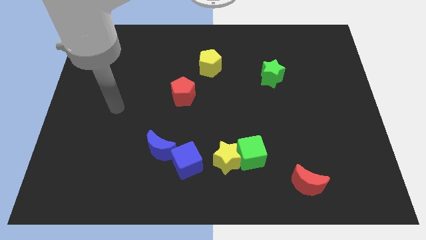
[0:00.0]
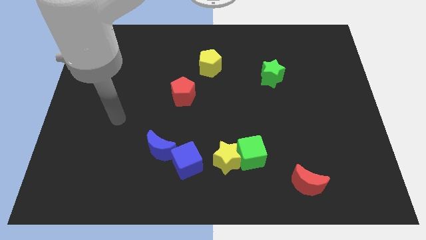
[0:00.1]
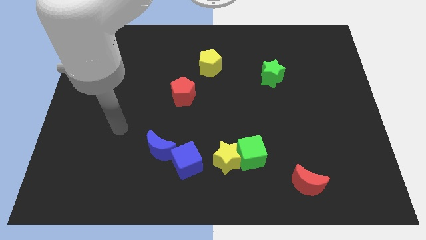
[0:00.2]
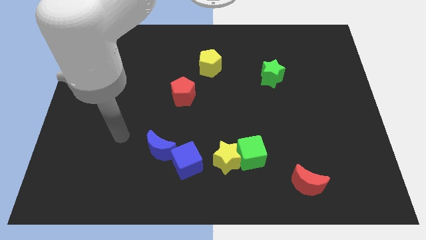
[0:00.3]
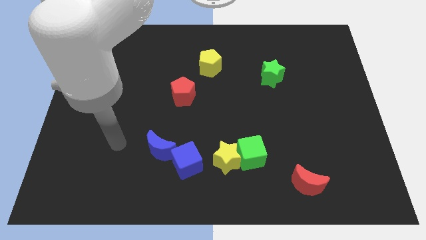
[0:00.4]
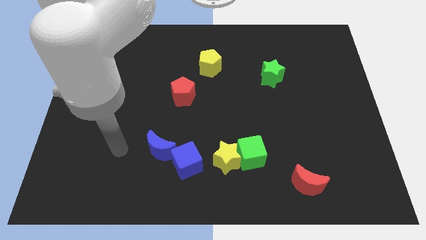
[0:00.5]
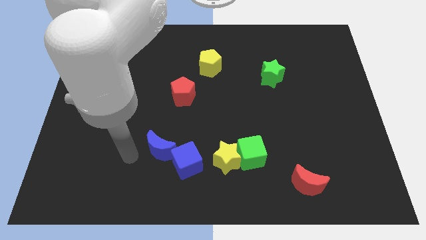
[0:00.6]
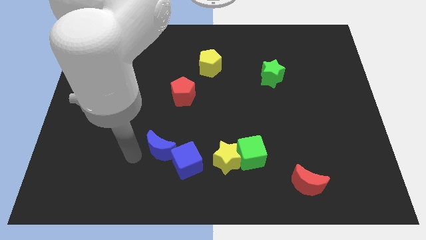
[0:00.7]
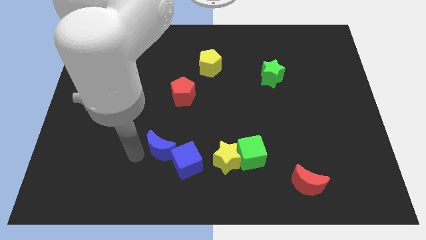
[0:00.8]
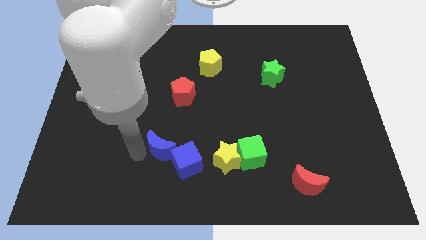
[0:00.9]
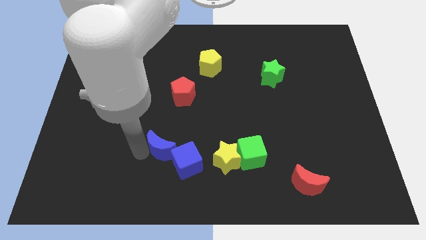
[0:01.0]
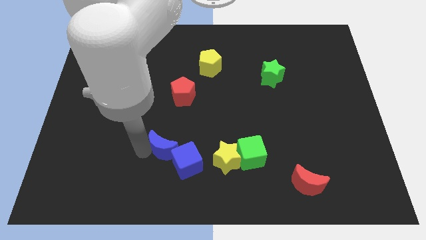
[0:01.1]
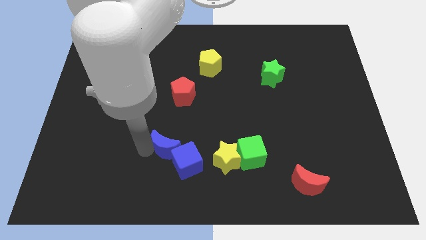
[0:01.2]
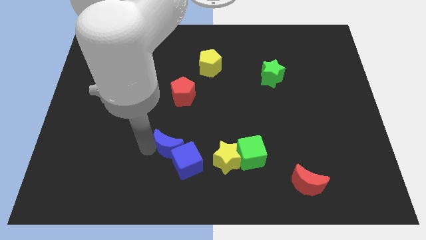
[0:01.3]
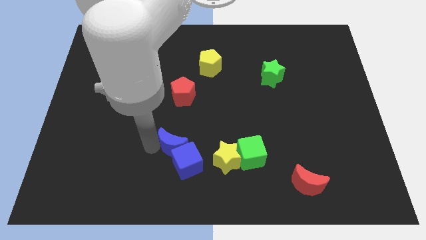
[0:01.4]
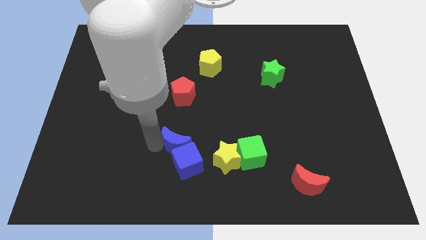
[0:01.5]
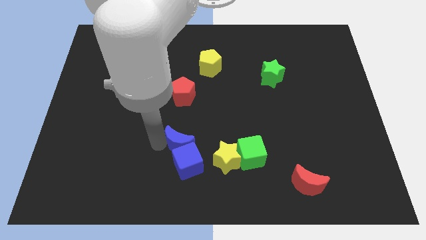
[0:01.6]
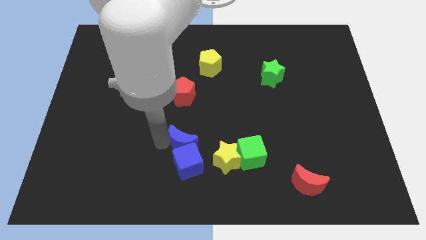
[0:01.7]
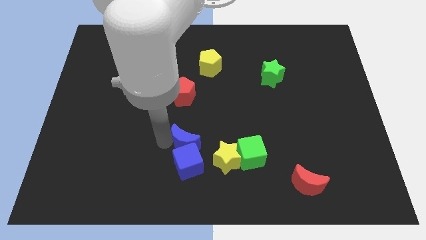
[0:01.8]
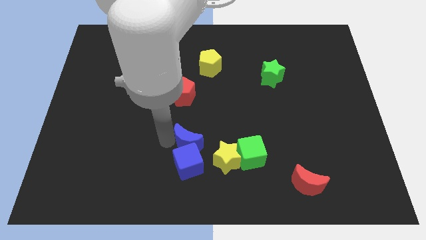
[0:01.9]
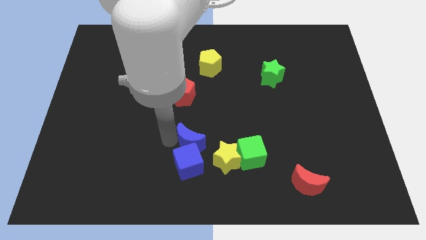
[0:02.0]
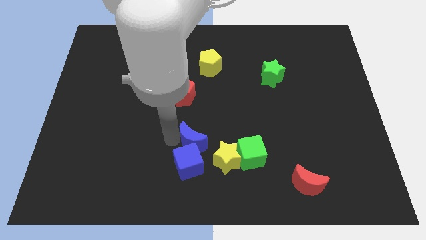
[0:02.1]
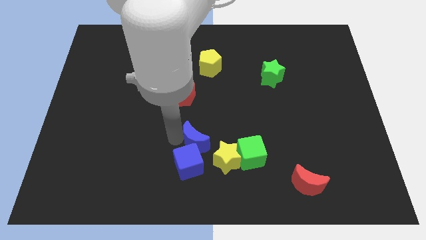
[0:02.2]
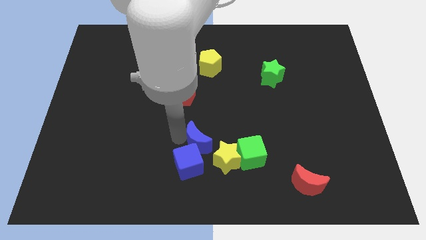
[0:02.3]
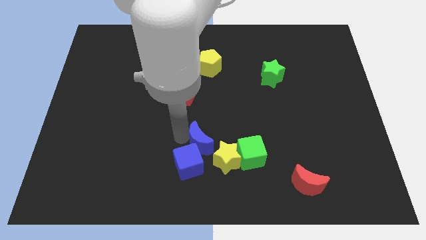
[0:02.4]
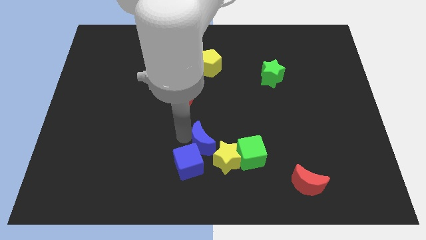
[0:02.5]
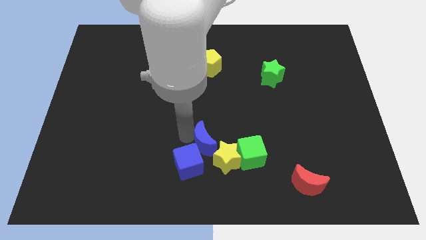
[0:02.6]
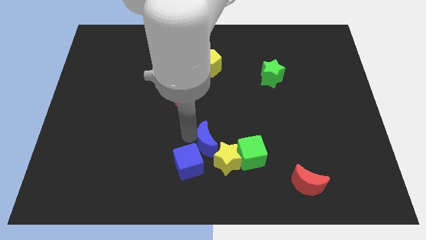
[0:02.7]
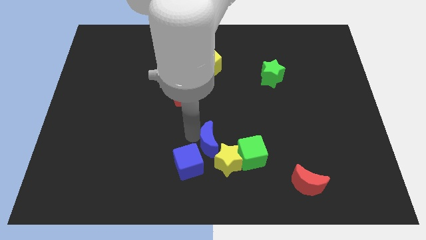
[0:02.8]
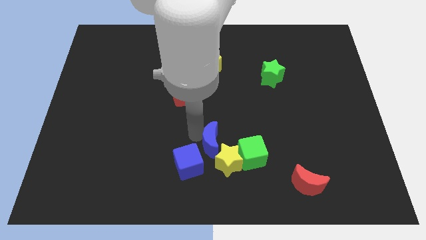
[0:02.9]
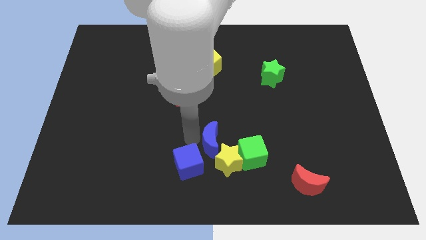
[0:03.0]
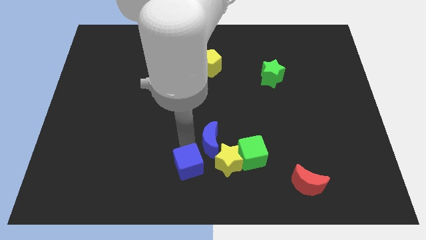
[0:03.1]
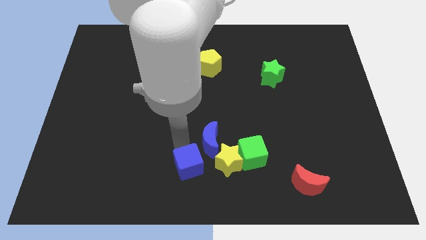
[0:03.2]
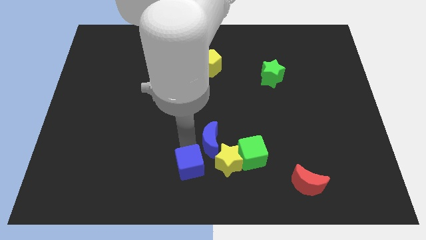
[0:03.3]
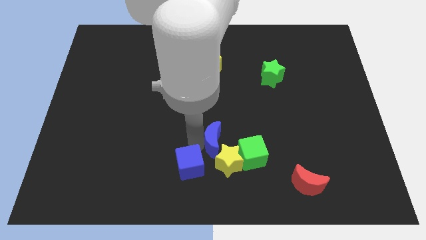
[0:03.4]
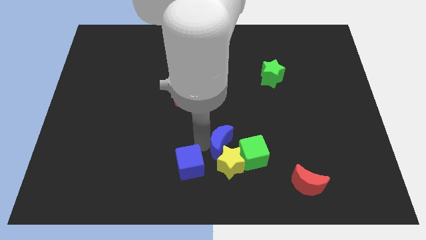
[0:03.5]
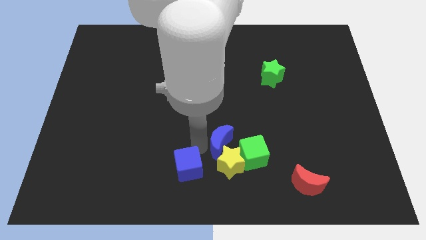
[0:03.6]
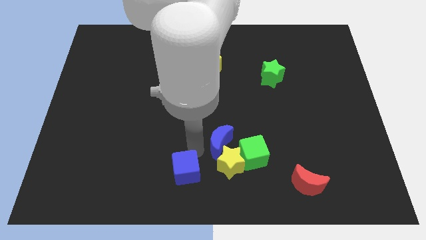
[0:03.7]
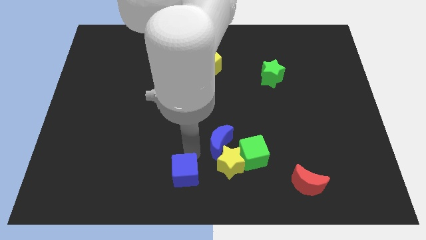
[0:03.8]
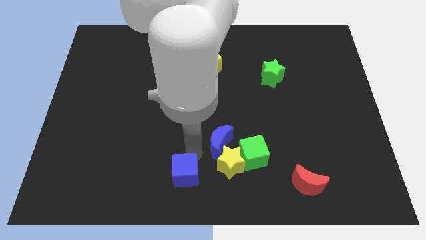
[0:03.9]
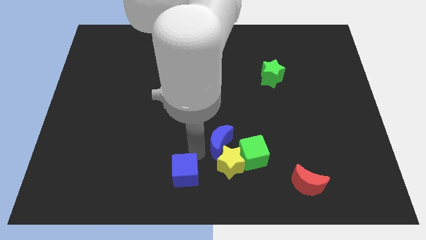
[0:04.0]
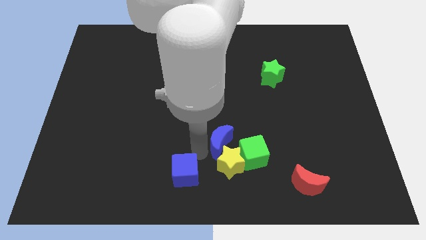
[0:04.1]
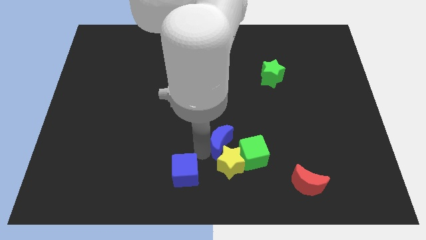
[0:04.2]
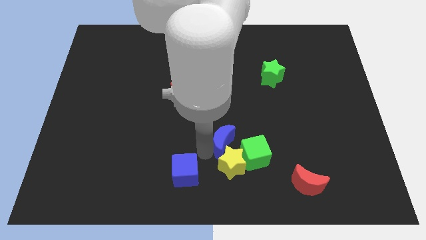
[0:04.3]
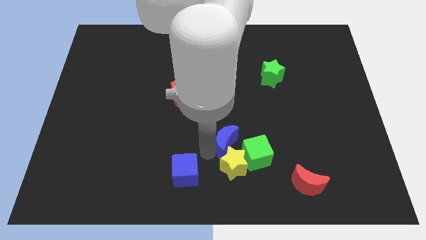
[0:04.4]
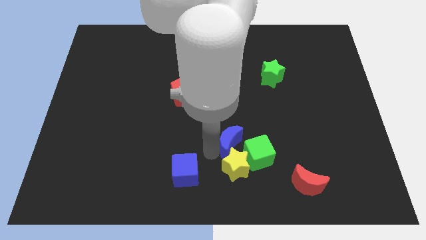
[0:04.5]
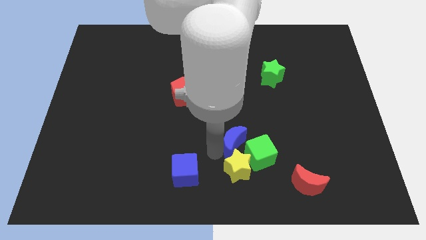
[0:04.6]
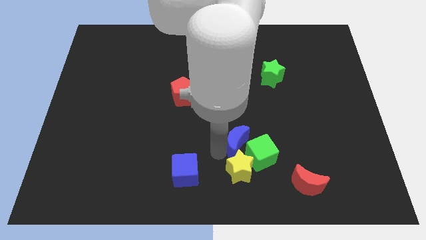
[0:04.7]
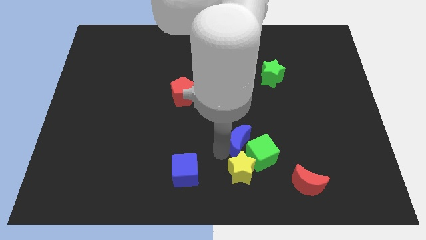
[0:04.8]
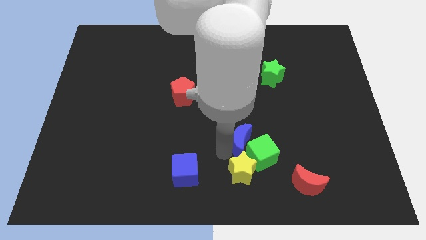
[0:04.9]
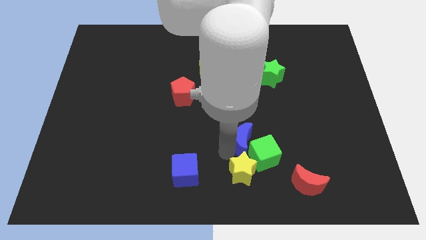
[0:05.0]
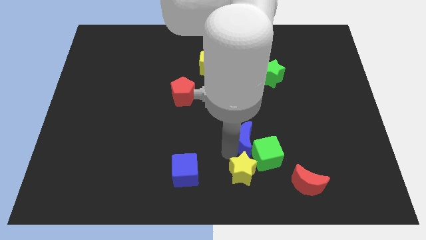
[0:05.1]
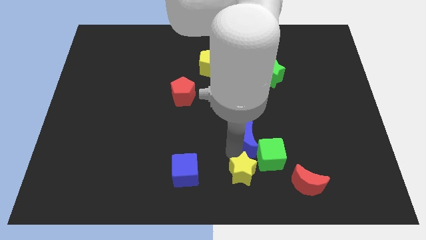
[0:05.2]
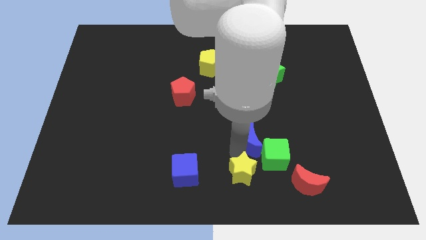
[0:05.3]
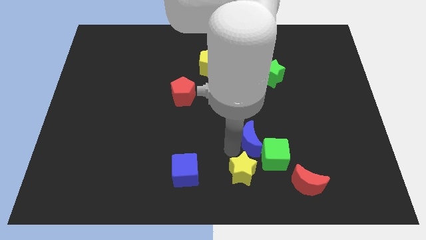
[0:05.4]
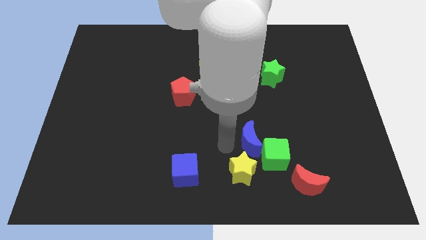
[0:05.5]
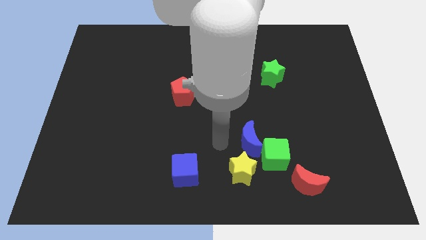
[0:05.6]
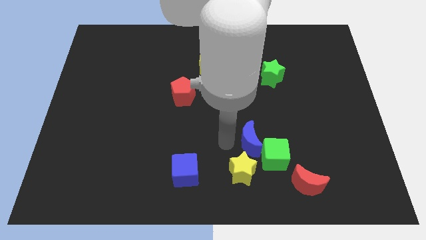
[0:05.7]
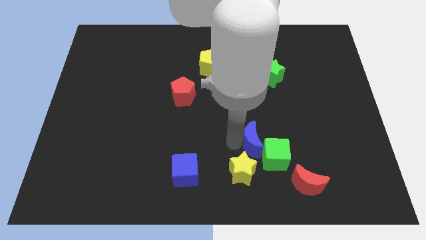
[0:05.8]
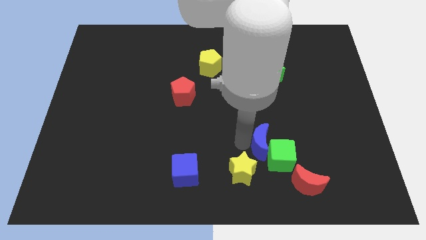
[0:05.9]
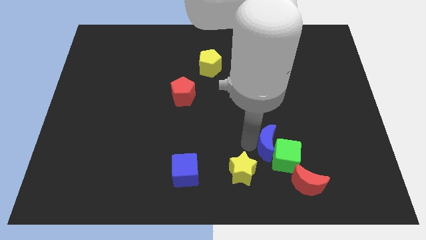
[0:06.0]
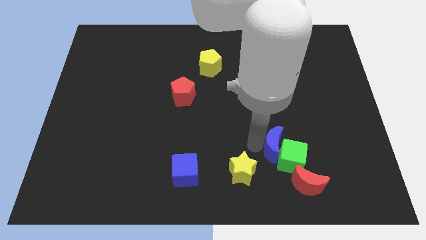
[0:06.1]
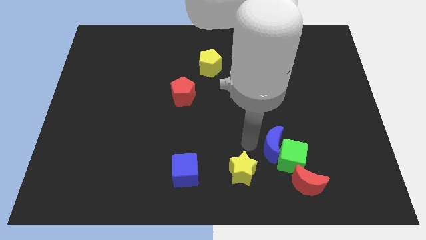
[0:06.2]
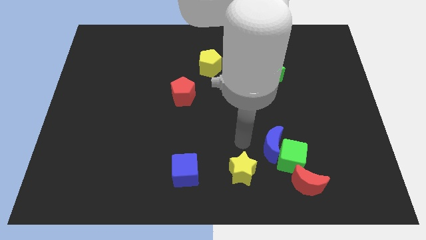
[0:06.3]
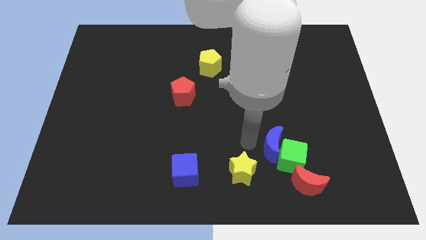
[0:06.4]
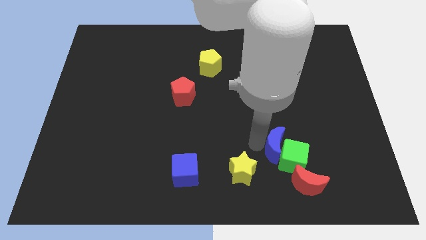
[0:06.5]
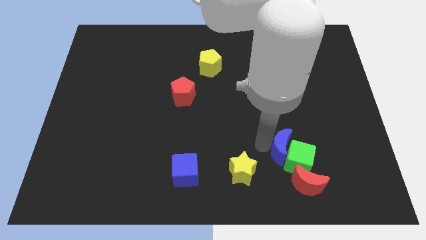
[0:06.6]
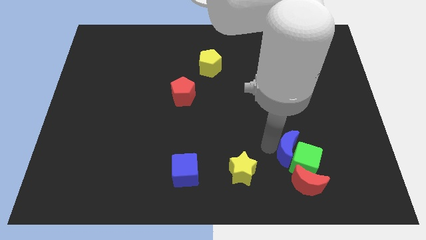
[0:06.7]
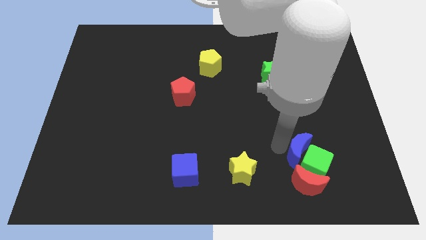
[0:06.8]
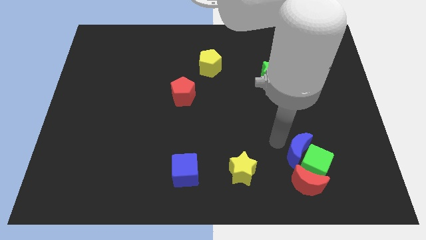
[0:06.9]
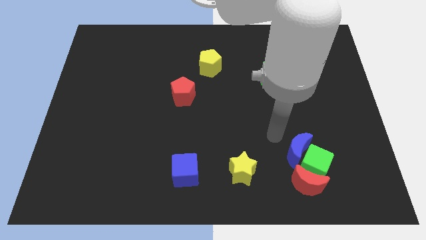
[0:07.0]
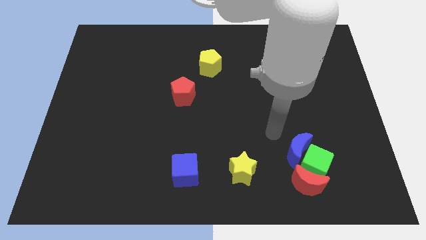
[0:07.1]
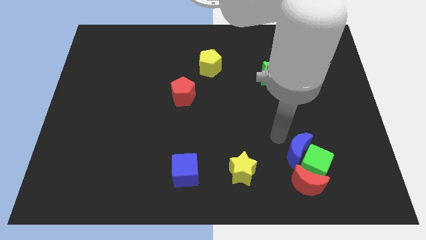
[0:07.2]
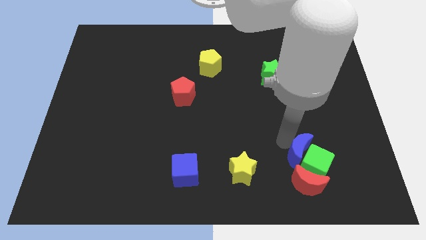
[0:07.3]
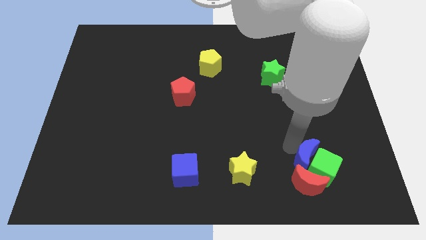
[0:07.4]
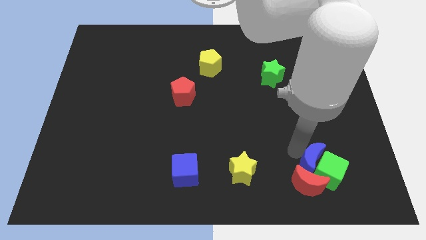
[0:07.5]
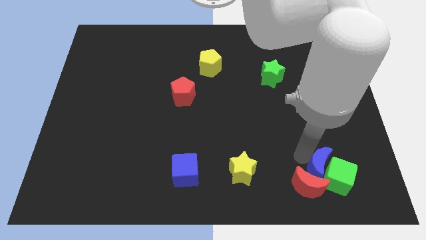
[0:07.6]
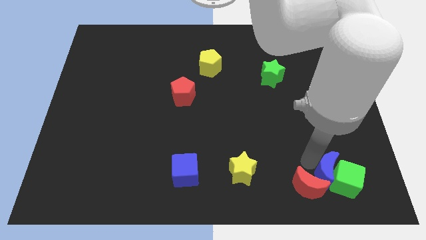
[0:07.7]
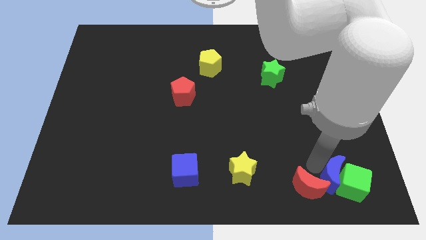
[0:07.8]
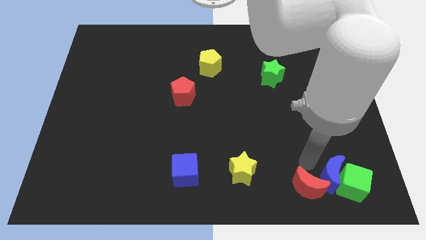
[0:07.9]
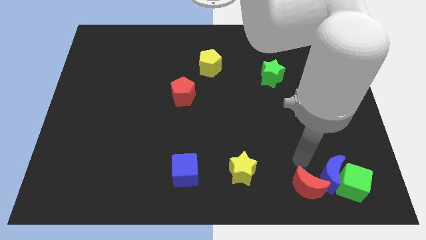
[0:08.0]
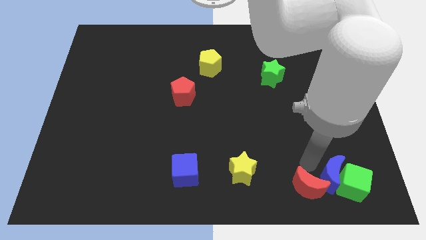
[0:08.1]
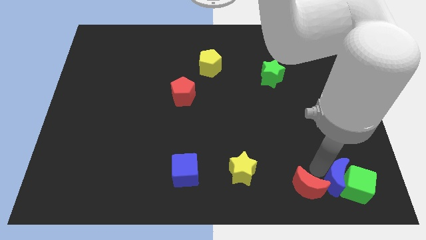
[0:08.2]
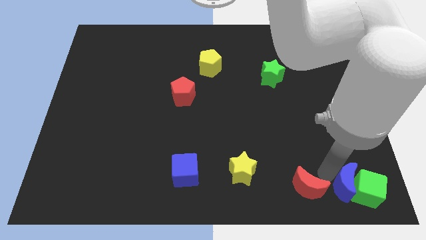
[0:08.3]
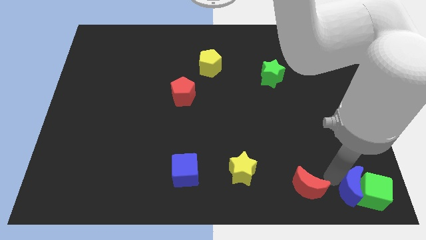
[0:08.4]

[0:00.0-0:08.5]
push the blue moon to the bottom right
